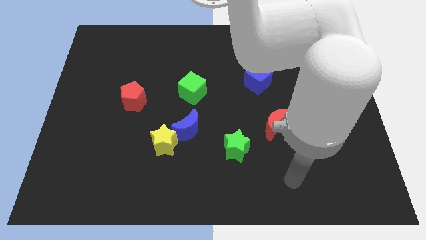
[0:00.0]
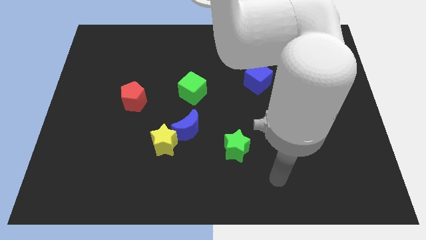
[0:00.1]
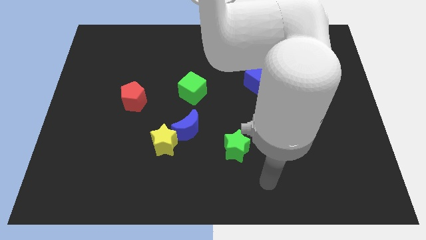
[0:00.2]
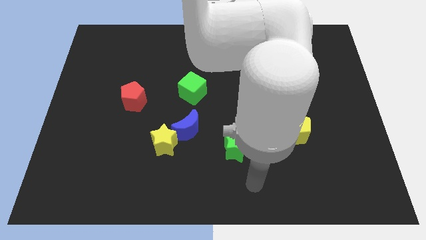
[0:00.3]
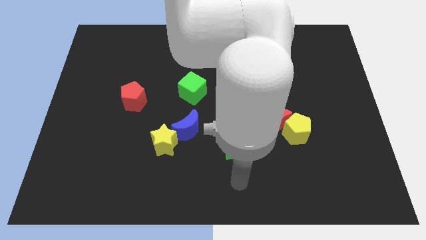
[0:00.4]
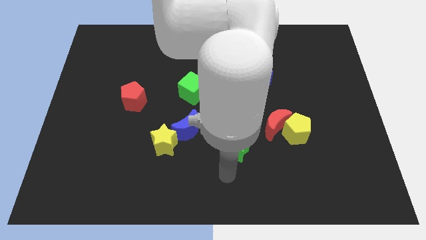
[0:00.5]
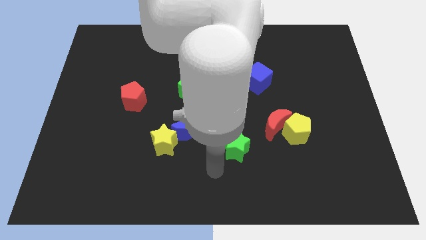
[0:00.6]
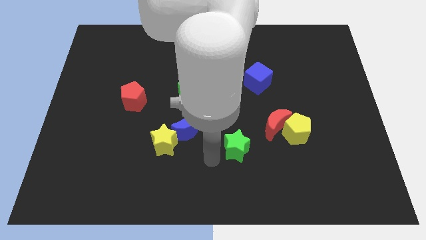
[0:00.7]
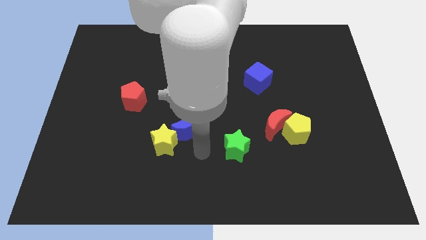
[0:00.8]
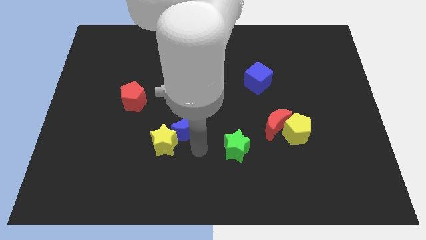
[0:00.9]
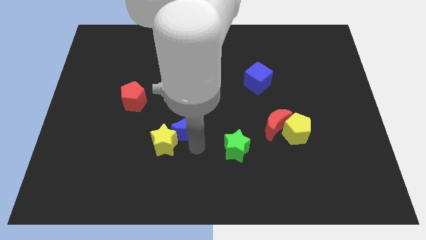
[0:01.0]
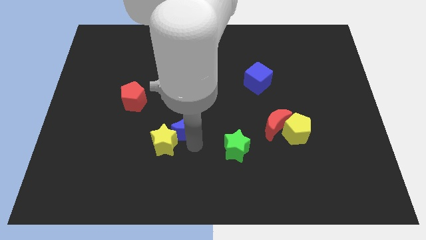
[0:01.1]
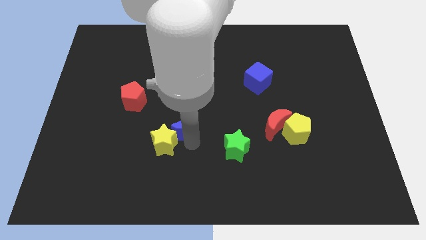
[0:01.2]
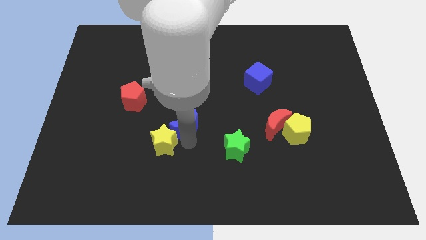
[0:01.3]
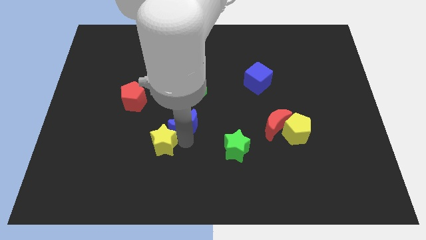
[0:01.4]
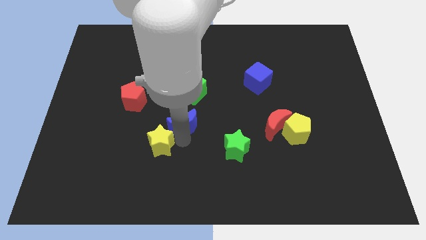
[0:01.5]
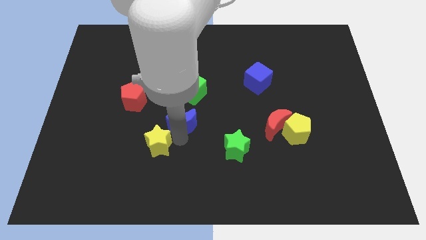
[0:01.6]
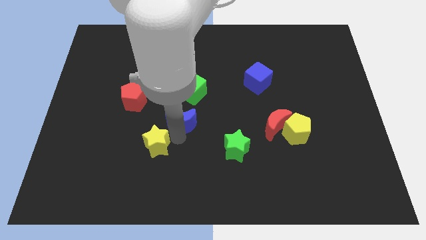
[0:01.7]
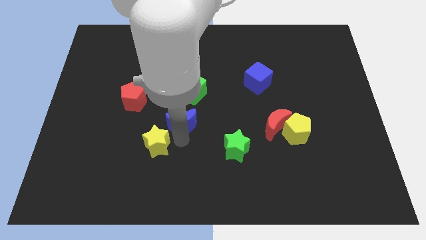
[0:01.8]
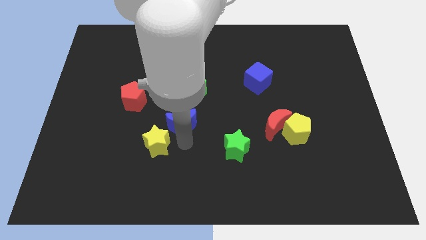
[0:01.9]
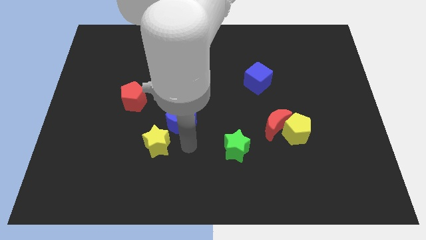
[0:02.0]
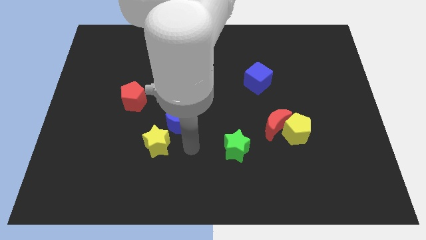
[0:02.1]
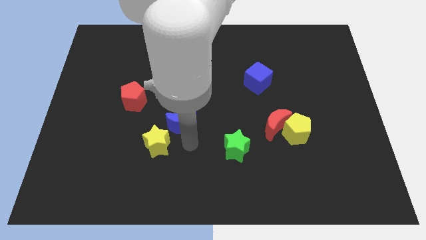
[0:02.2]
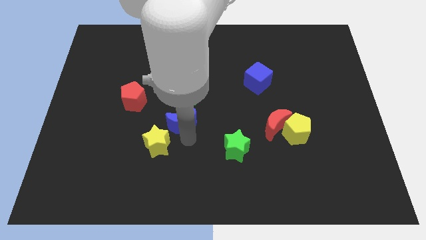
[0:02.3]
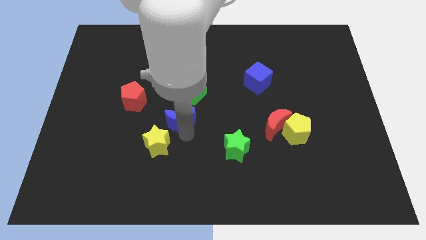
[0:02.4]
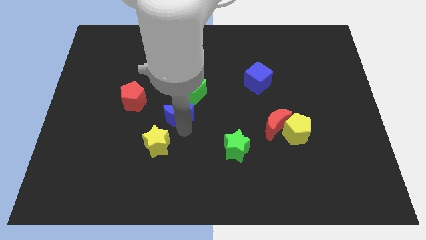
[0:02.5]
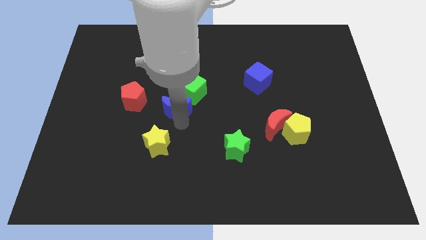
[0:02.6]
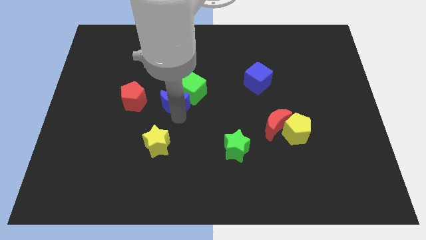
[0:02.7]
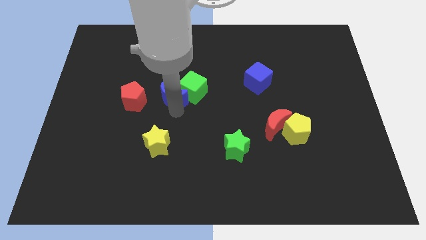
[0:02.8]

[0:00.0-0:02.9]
move the blue moon a little up

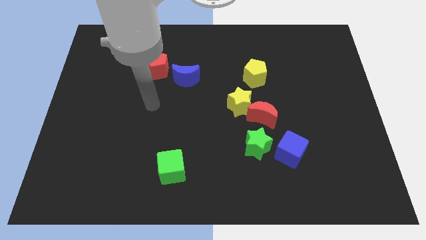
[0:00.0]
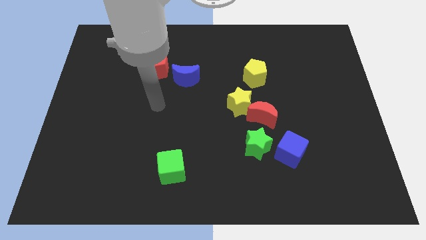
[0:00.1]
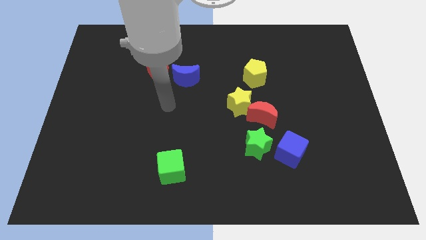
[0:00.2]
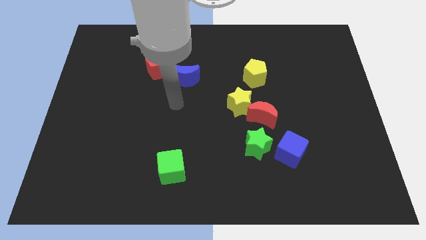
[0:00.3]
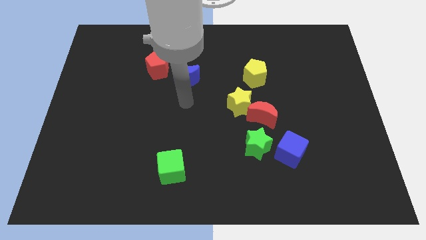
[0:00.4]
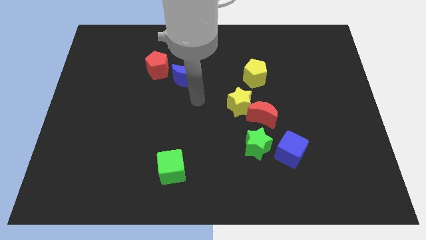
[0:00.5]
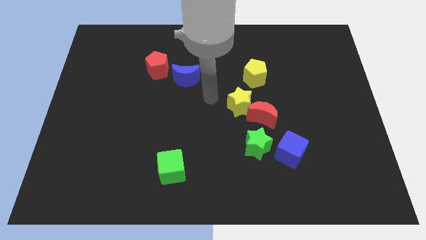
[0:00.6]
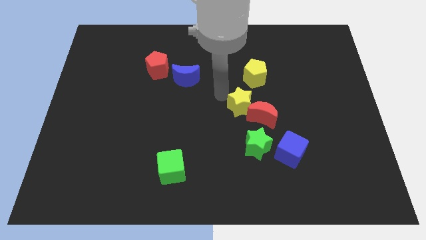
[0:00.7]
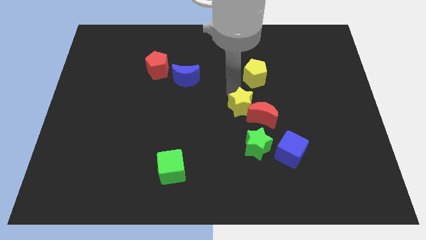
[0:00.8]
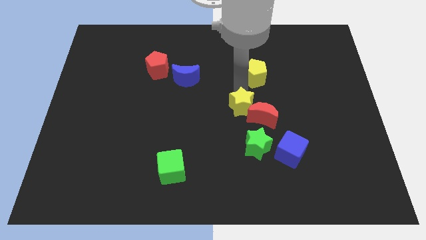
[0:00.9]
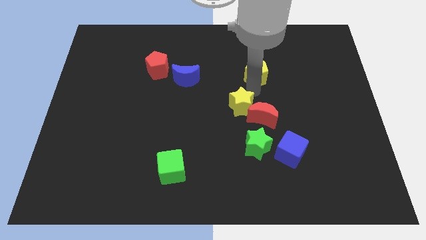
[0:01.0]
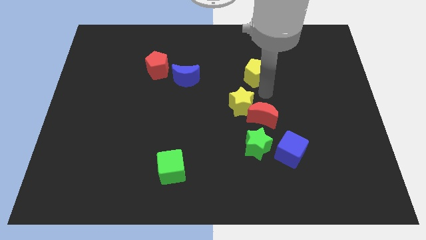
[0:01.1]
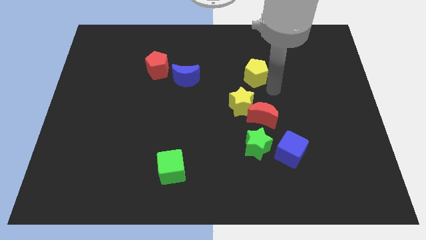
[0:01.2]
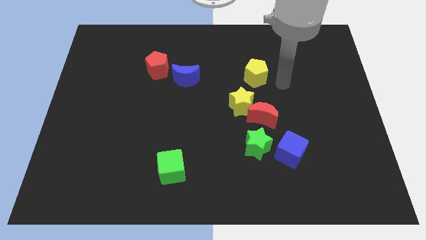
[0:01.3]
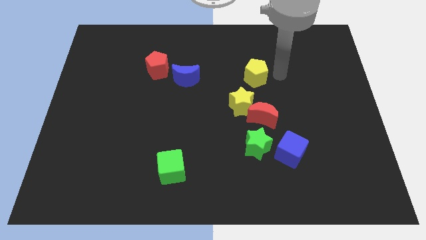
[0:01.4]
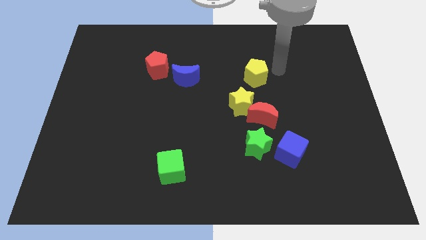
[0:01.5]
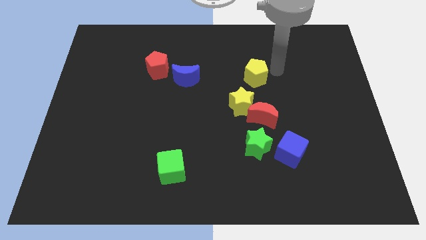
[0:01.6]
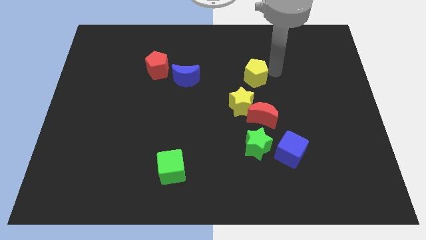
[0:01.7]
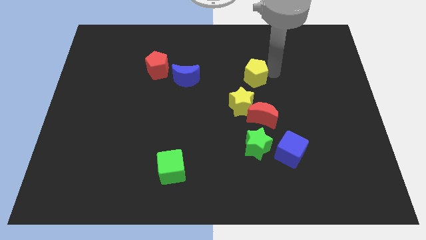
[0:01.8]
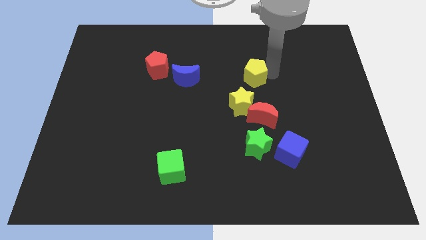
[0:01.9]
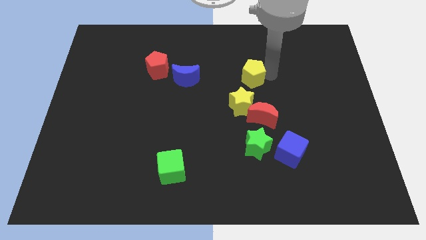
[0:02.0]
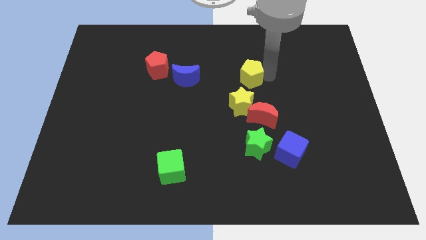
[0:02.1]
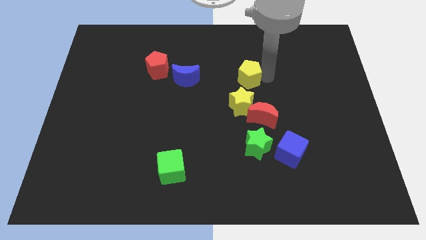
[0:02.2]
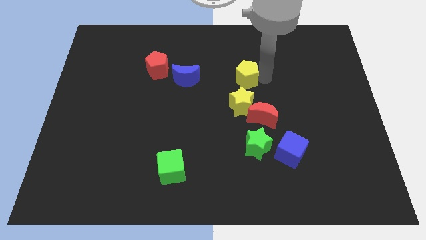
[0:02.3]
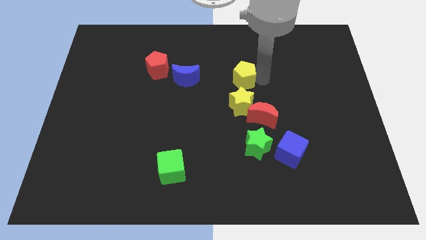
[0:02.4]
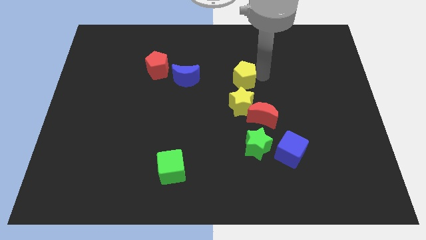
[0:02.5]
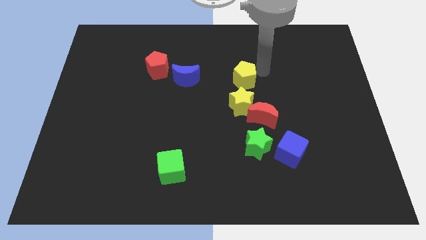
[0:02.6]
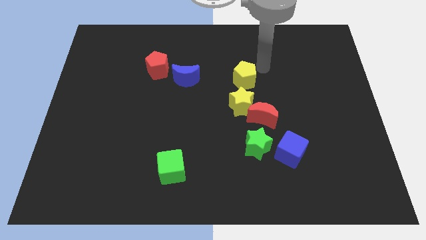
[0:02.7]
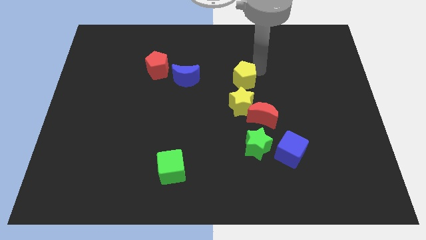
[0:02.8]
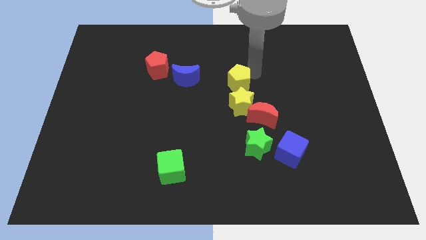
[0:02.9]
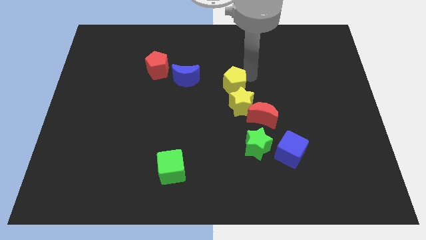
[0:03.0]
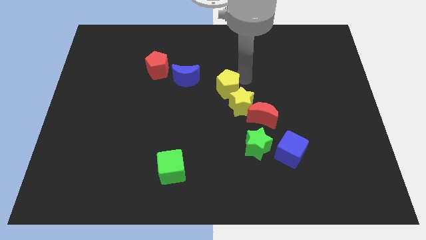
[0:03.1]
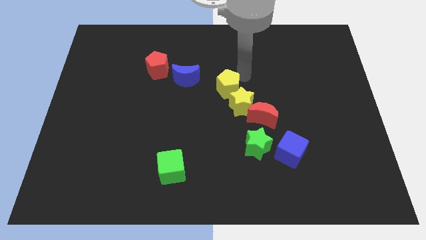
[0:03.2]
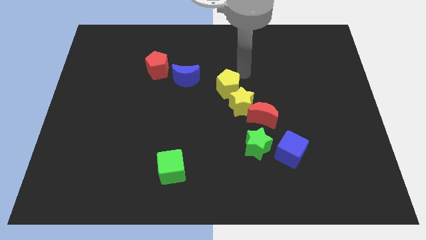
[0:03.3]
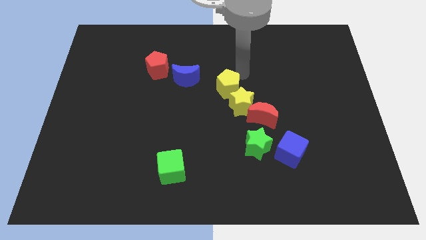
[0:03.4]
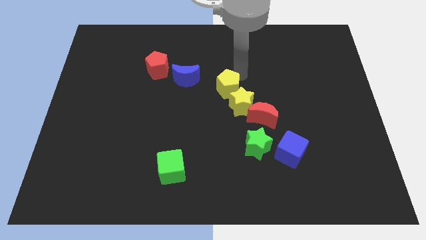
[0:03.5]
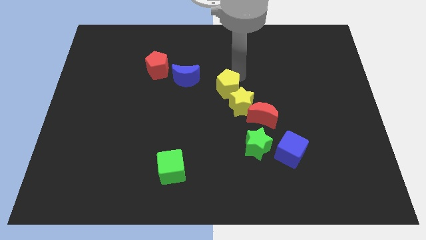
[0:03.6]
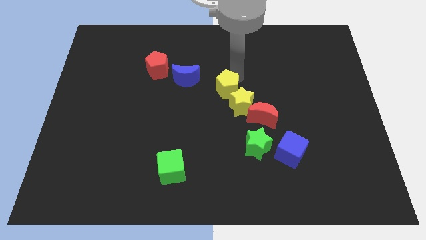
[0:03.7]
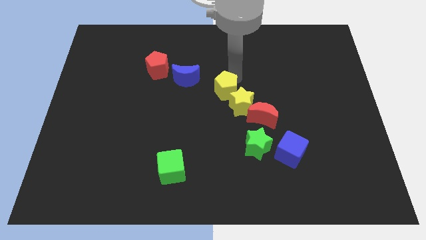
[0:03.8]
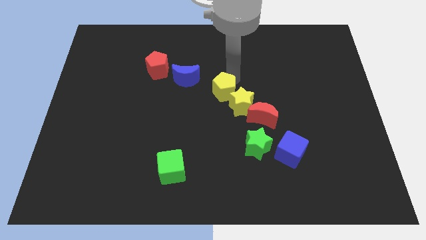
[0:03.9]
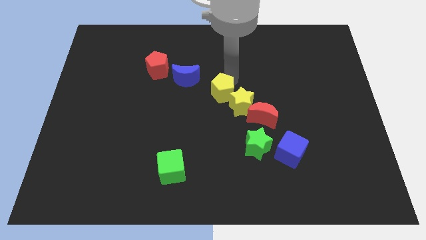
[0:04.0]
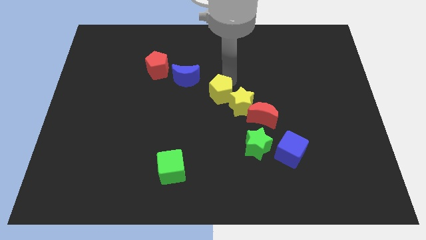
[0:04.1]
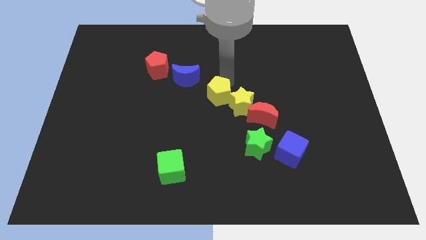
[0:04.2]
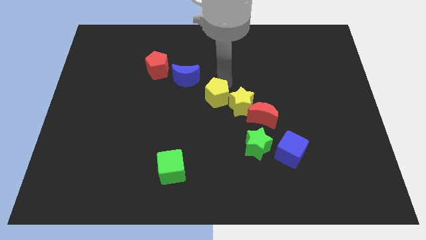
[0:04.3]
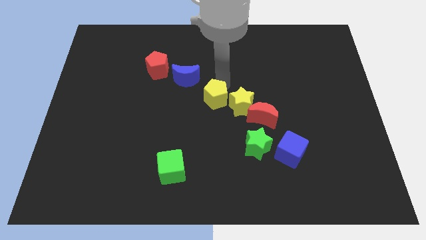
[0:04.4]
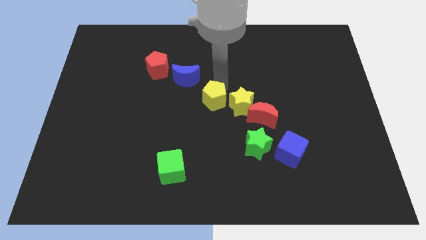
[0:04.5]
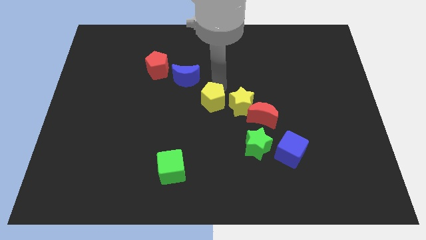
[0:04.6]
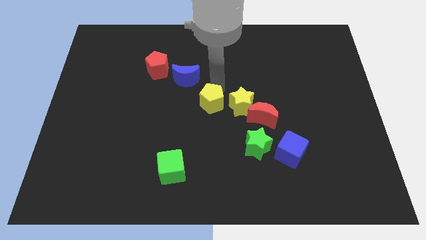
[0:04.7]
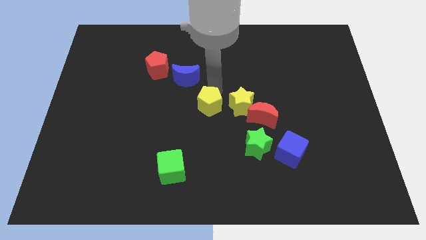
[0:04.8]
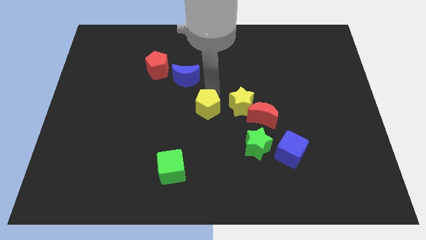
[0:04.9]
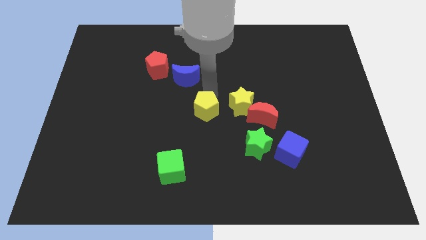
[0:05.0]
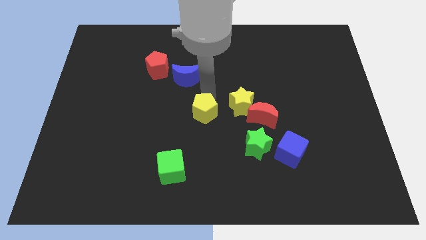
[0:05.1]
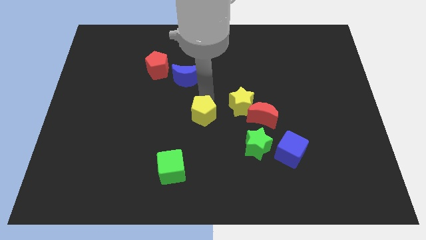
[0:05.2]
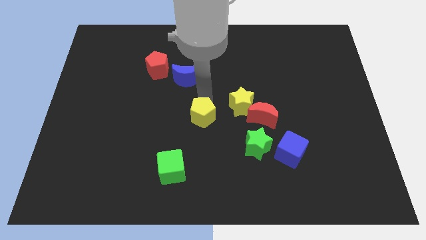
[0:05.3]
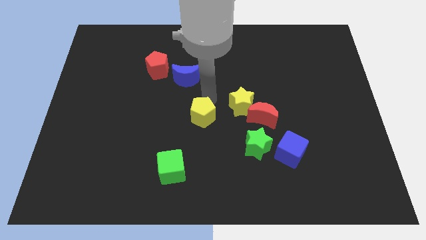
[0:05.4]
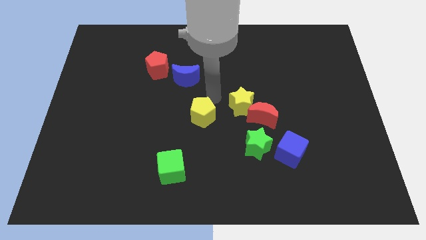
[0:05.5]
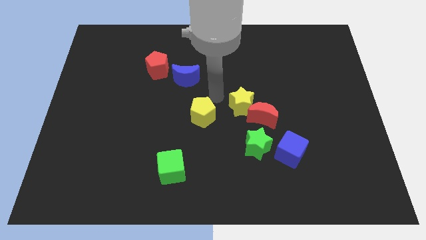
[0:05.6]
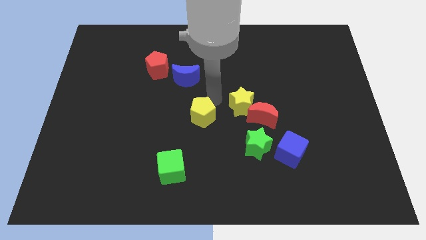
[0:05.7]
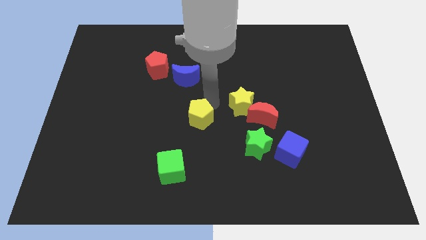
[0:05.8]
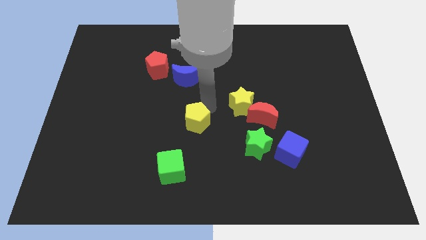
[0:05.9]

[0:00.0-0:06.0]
move the yellow pentagon downwards and to the left
